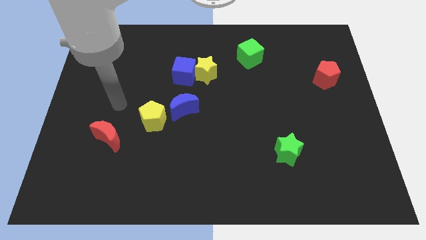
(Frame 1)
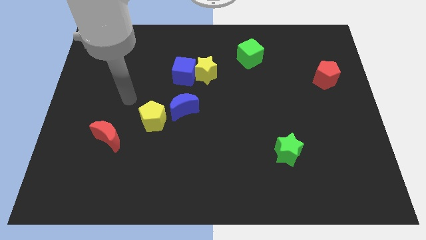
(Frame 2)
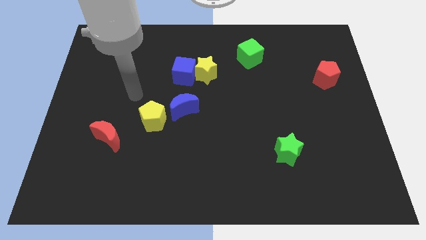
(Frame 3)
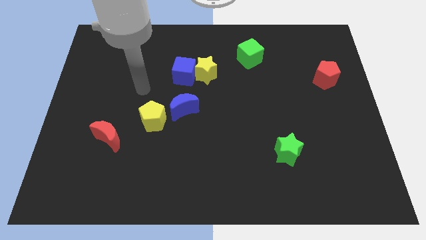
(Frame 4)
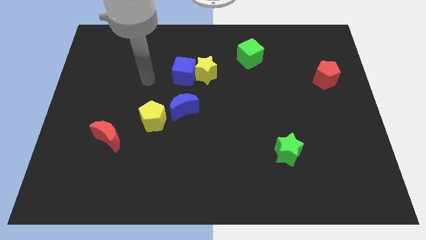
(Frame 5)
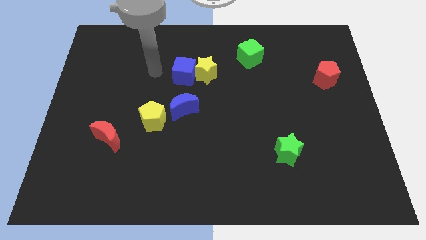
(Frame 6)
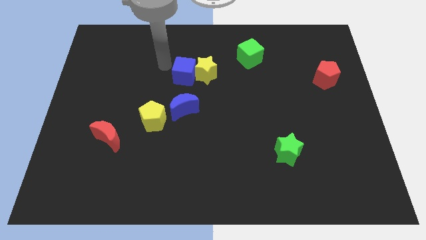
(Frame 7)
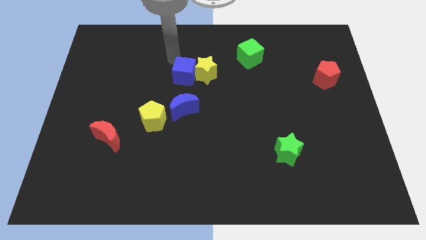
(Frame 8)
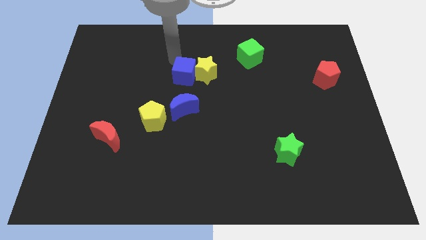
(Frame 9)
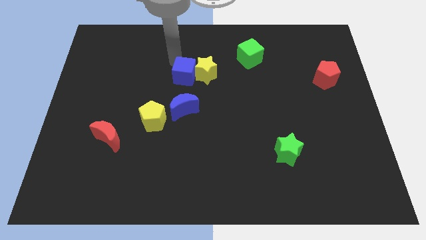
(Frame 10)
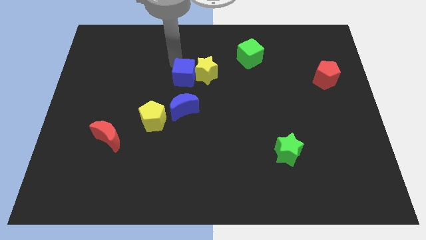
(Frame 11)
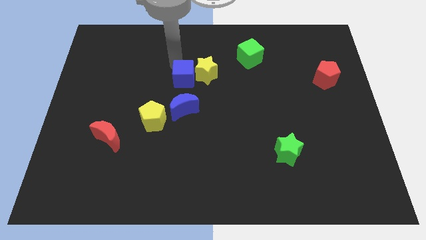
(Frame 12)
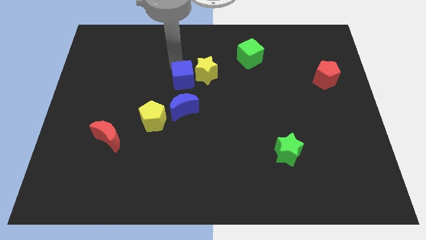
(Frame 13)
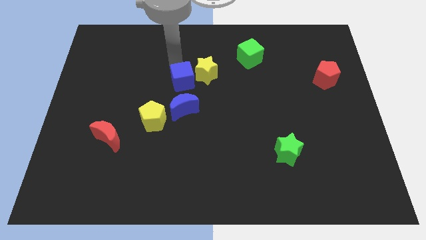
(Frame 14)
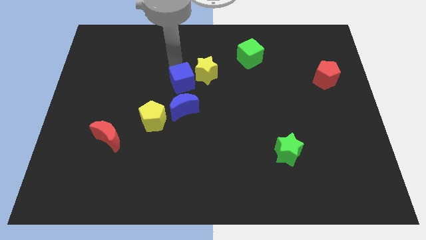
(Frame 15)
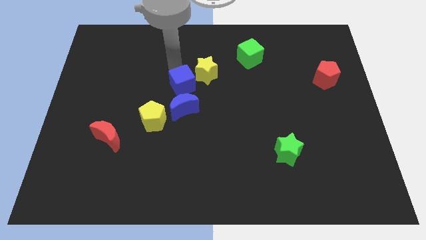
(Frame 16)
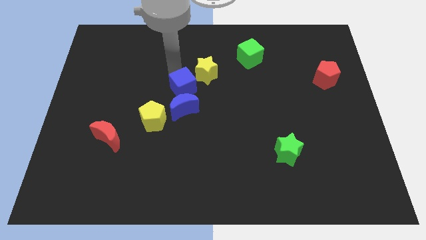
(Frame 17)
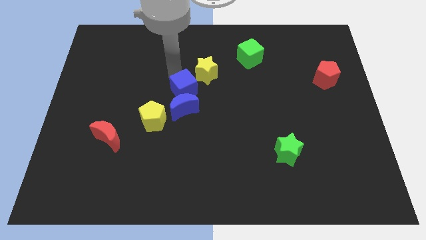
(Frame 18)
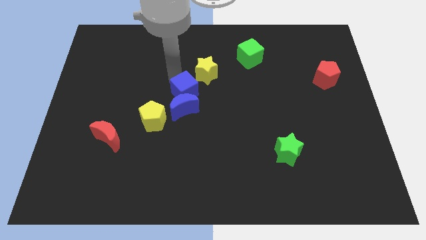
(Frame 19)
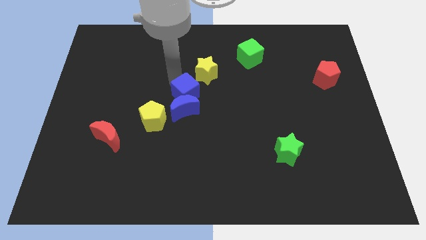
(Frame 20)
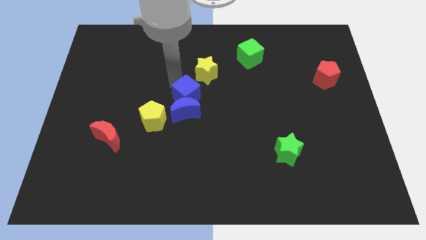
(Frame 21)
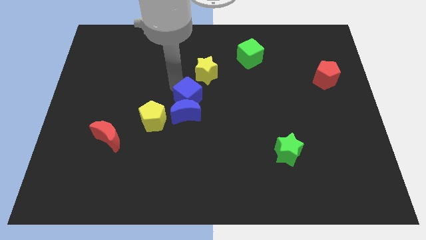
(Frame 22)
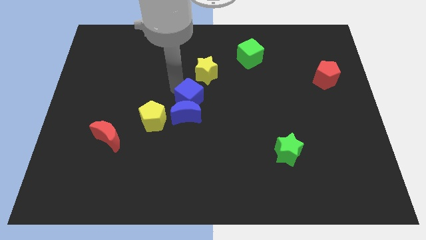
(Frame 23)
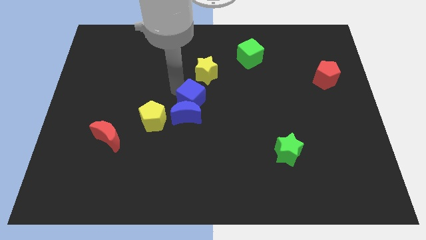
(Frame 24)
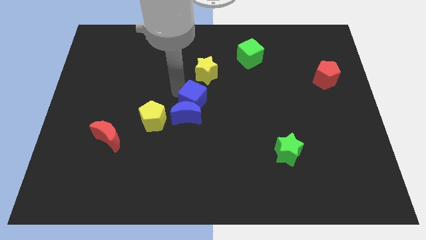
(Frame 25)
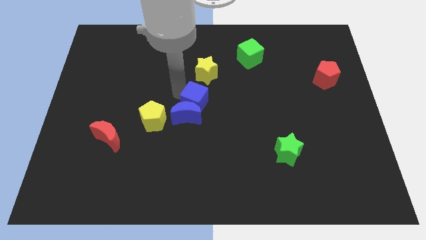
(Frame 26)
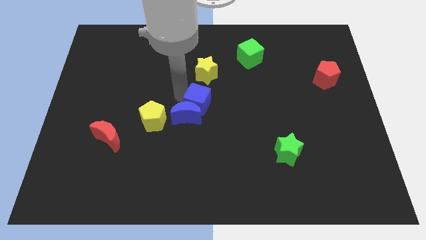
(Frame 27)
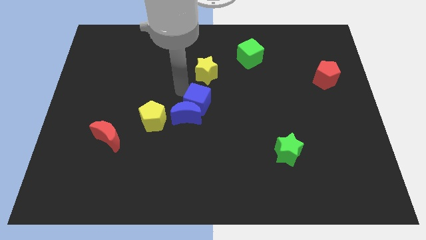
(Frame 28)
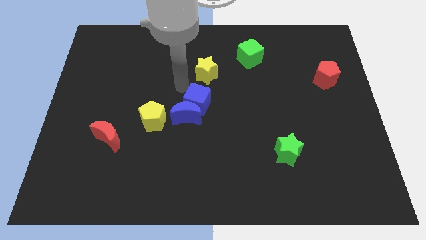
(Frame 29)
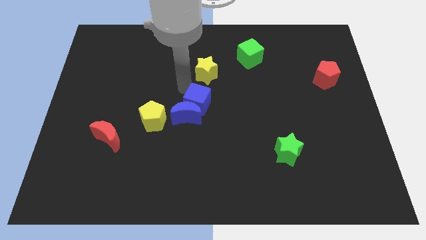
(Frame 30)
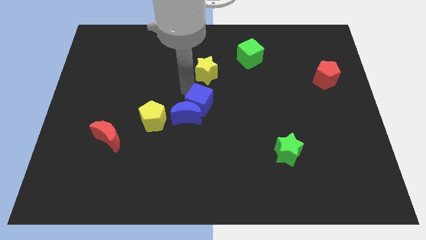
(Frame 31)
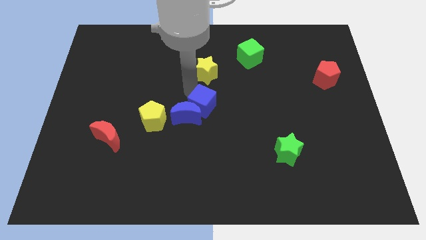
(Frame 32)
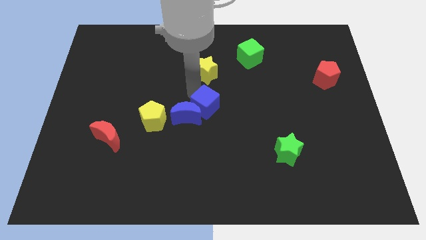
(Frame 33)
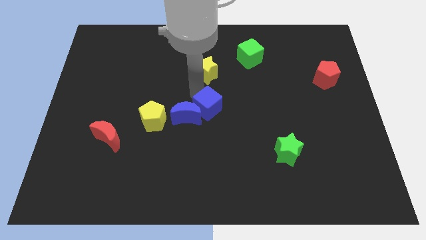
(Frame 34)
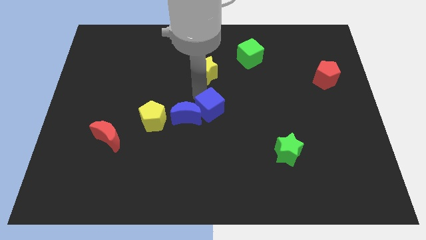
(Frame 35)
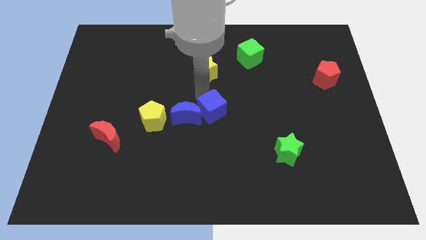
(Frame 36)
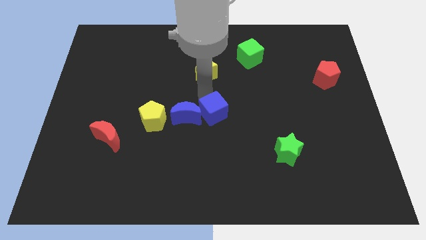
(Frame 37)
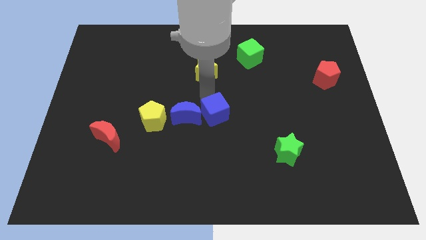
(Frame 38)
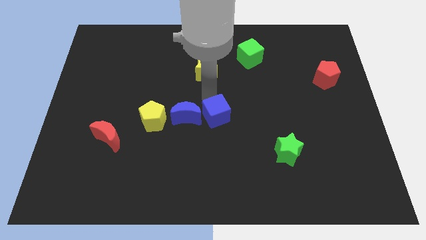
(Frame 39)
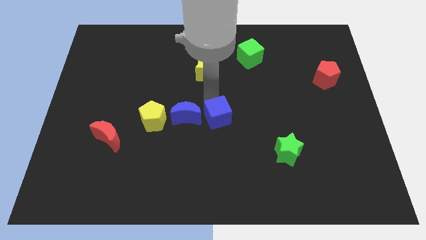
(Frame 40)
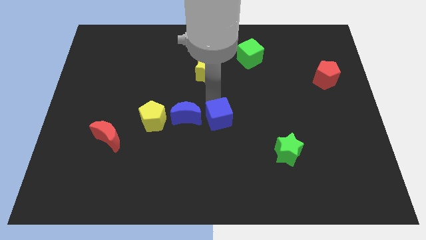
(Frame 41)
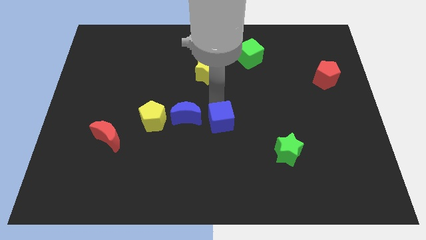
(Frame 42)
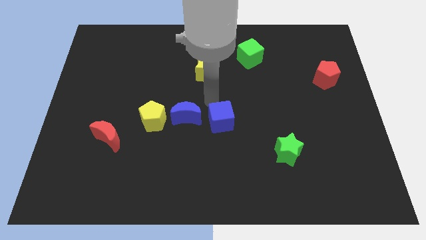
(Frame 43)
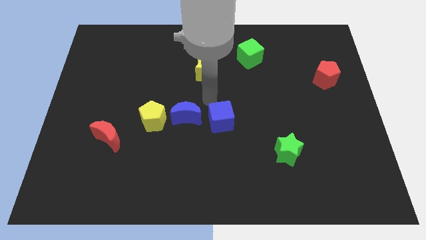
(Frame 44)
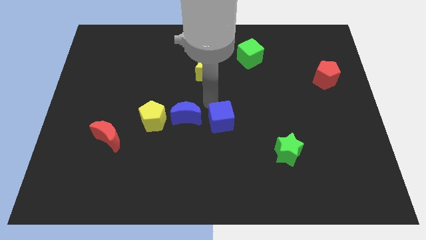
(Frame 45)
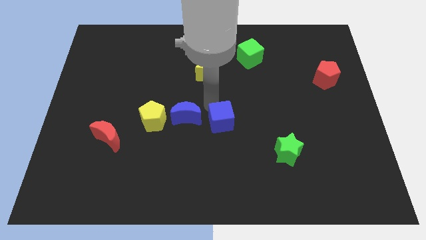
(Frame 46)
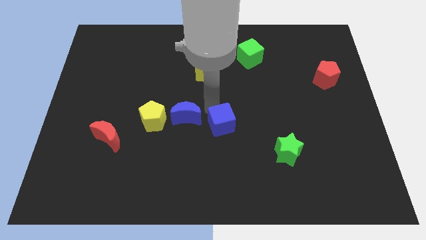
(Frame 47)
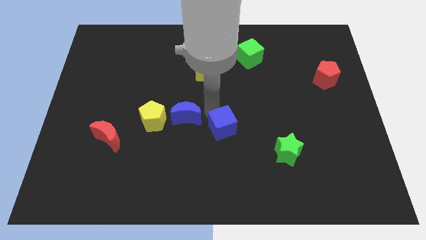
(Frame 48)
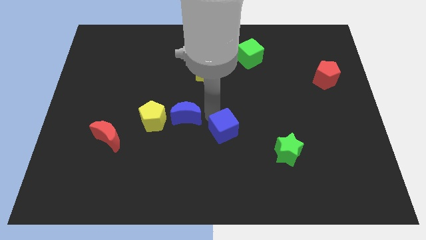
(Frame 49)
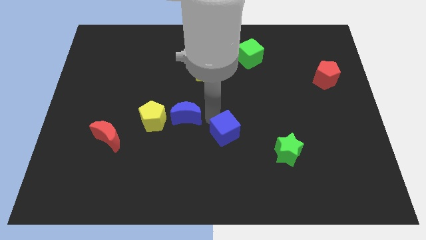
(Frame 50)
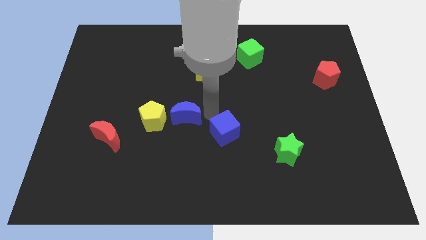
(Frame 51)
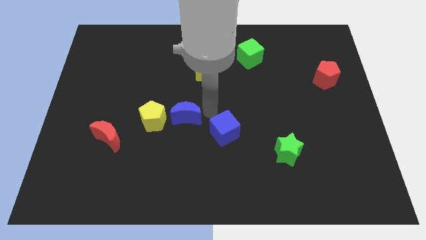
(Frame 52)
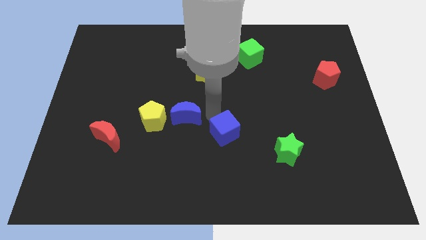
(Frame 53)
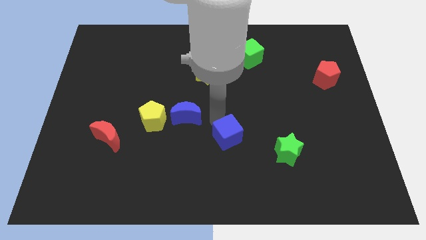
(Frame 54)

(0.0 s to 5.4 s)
push the blue cube left of the green star

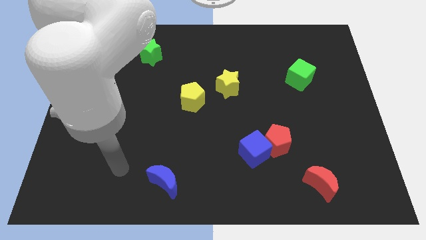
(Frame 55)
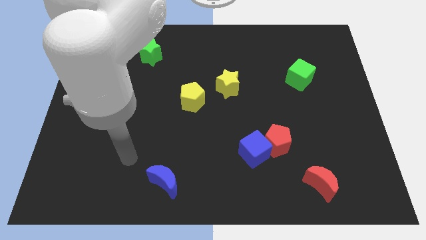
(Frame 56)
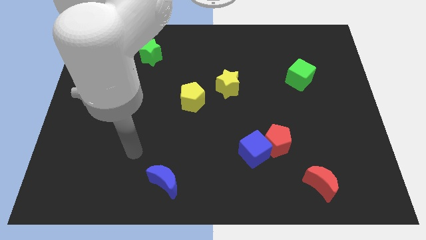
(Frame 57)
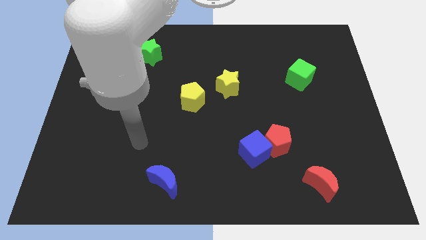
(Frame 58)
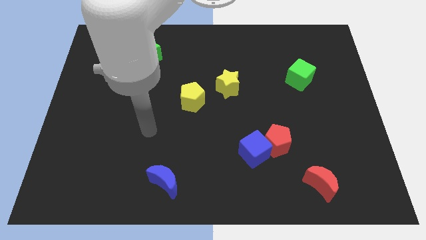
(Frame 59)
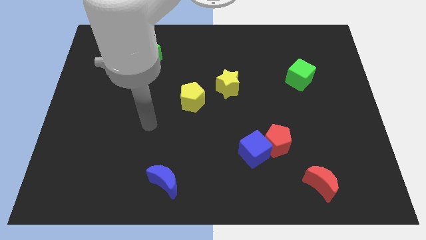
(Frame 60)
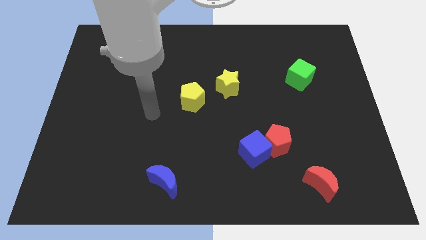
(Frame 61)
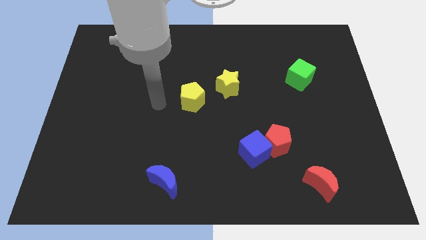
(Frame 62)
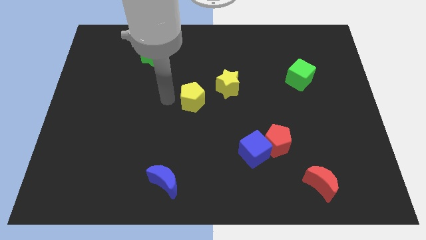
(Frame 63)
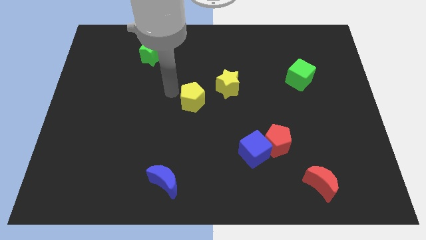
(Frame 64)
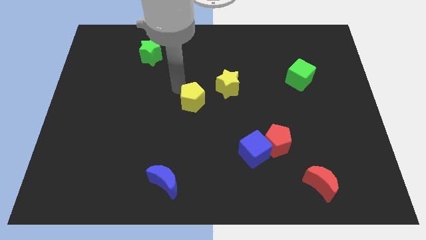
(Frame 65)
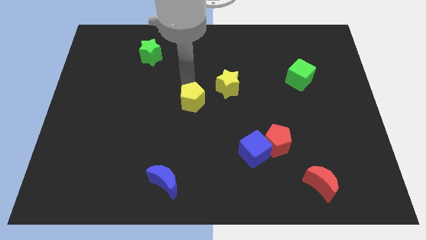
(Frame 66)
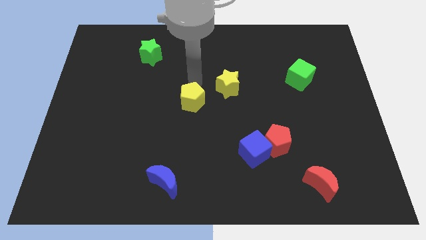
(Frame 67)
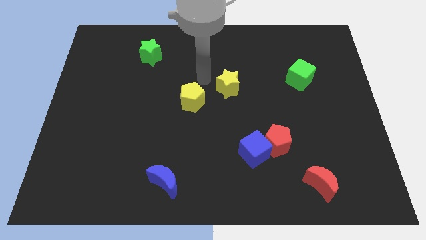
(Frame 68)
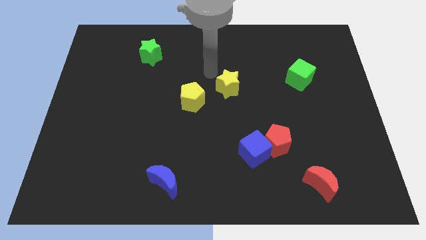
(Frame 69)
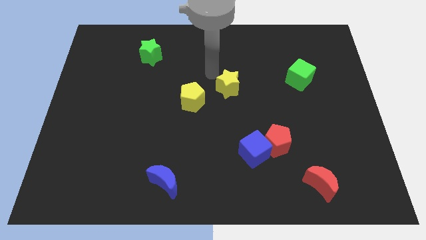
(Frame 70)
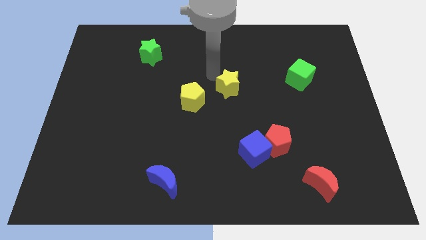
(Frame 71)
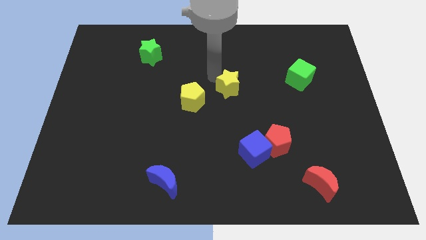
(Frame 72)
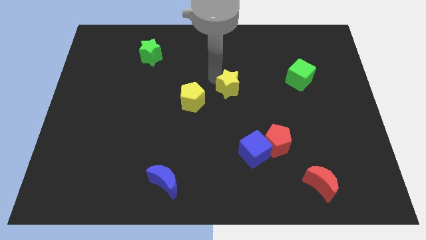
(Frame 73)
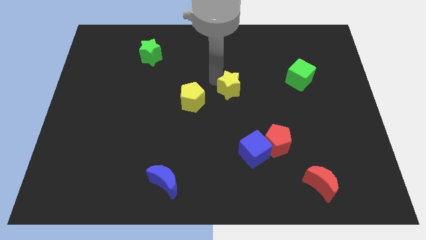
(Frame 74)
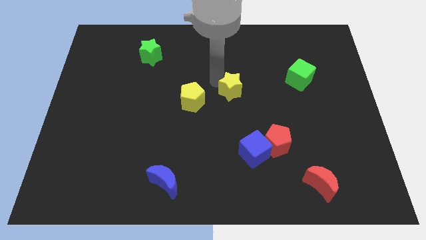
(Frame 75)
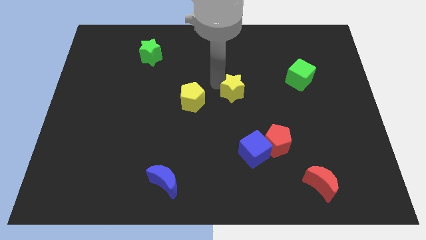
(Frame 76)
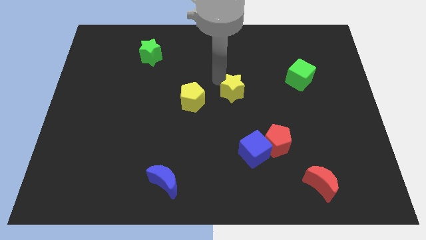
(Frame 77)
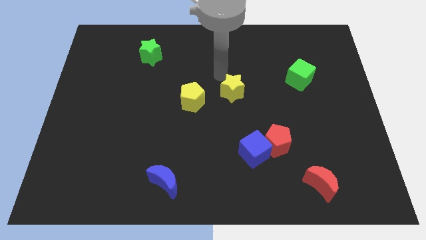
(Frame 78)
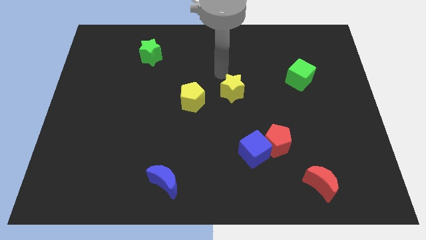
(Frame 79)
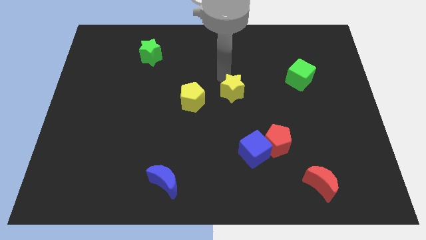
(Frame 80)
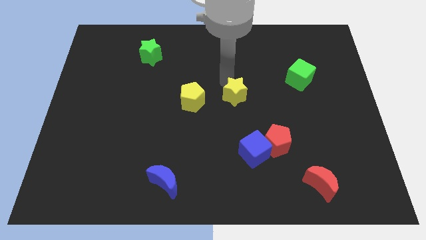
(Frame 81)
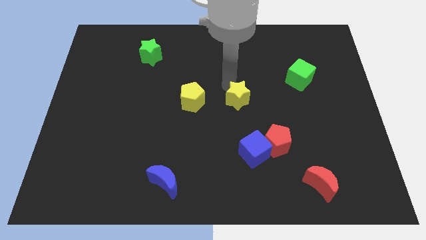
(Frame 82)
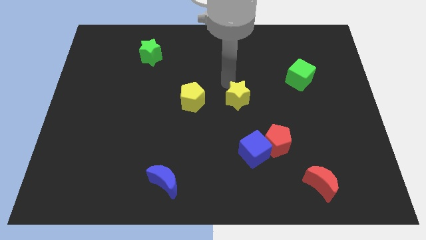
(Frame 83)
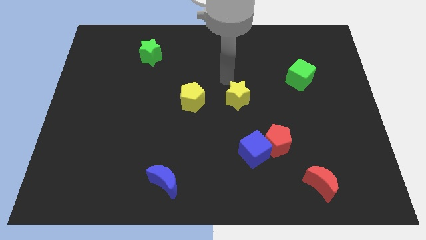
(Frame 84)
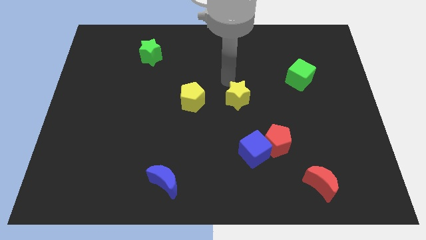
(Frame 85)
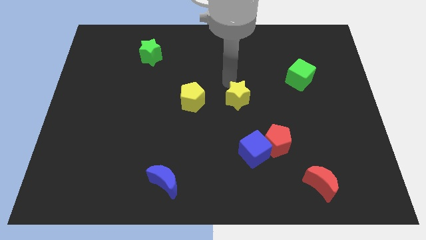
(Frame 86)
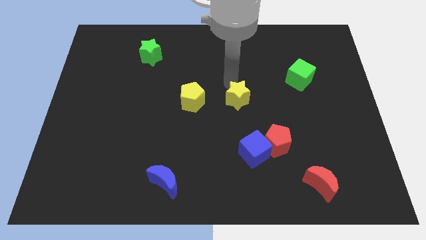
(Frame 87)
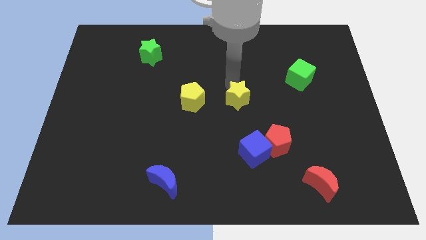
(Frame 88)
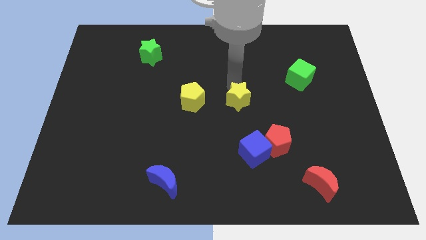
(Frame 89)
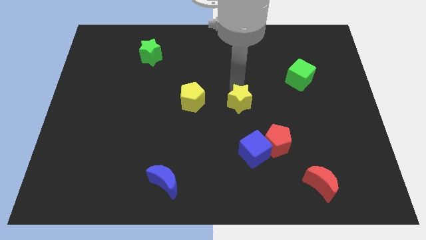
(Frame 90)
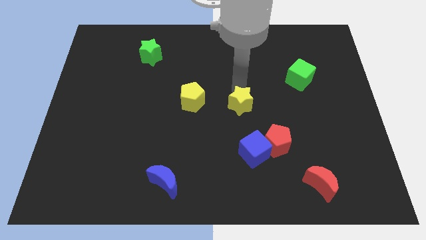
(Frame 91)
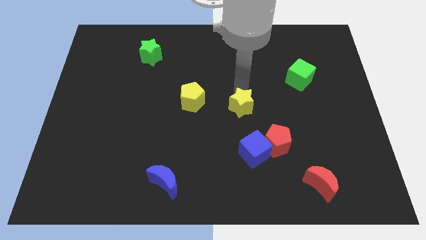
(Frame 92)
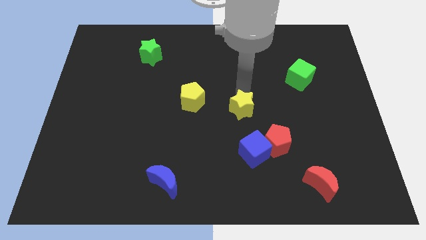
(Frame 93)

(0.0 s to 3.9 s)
move the yellow star to the top left of the red pentagon
